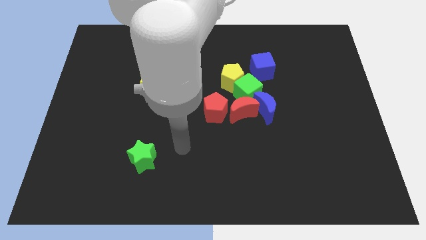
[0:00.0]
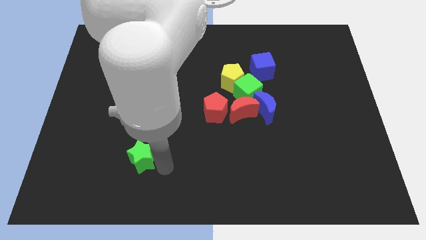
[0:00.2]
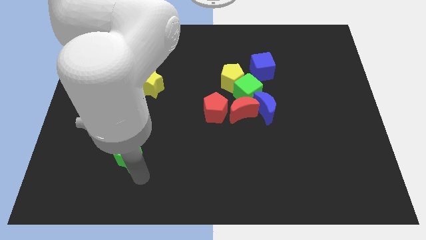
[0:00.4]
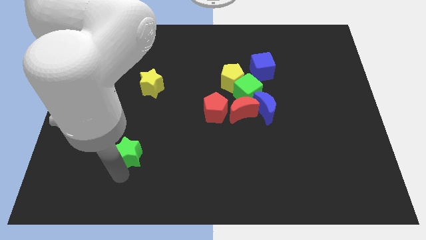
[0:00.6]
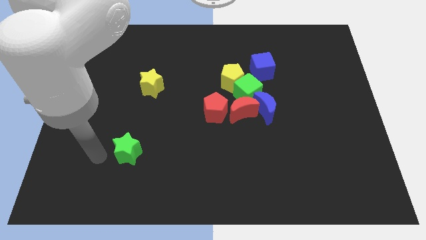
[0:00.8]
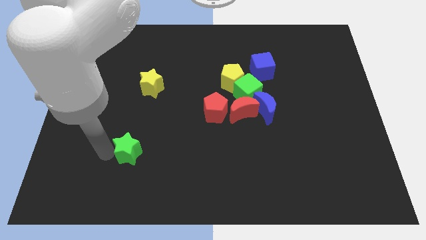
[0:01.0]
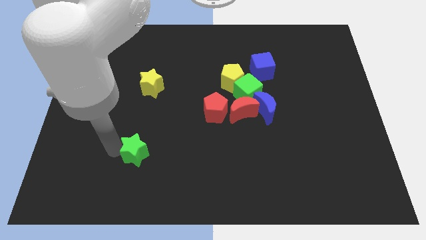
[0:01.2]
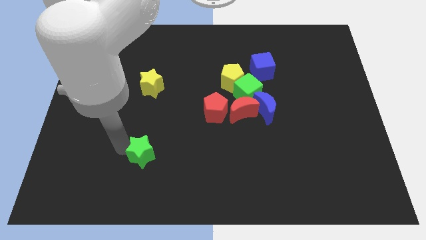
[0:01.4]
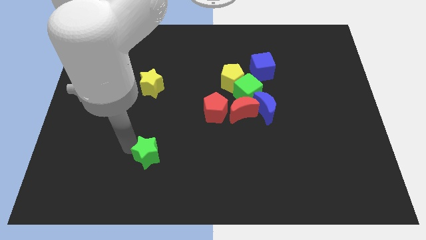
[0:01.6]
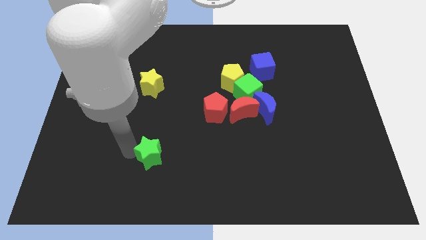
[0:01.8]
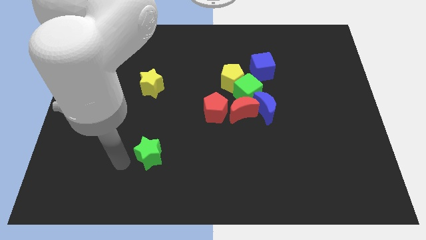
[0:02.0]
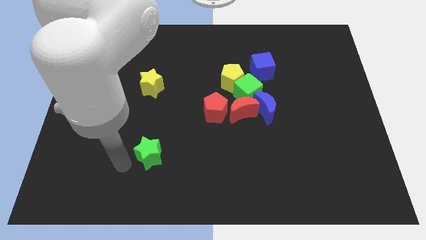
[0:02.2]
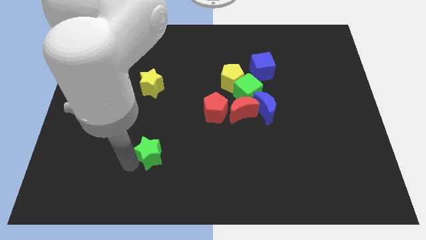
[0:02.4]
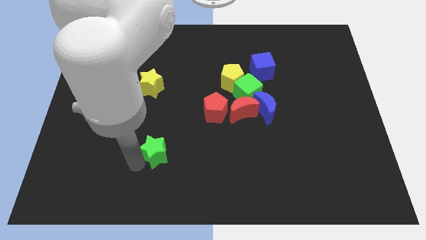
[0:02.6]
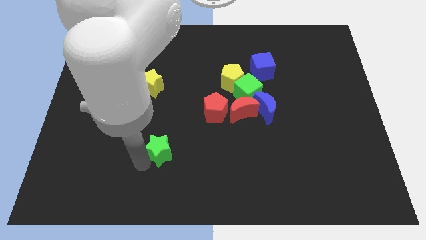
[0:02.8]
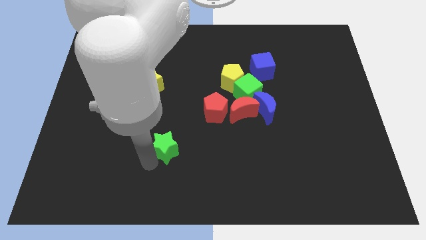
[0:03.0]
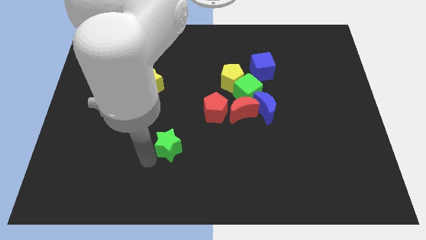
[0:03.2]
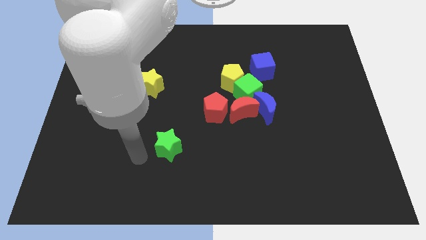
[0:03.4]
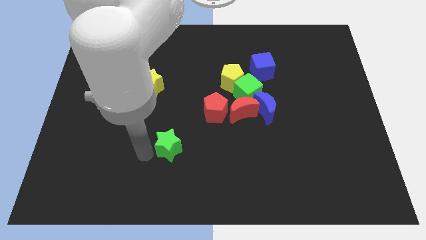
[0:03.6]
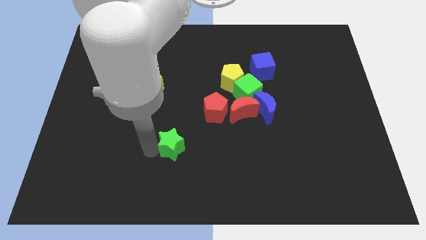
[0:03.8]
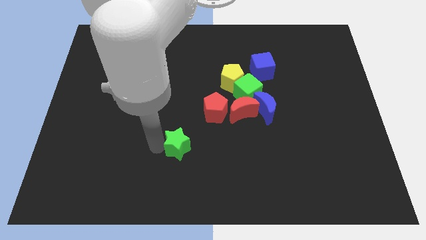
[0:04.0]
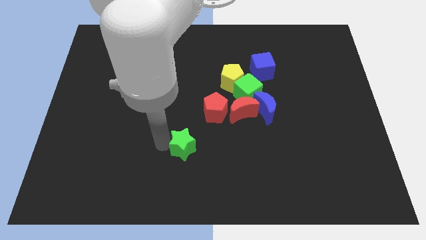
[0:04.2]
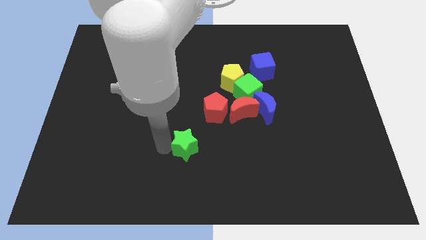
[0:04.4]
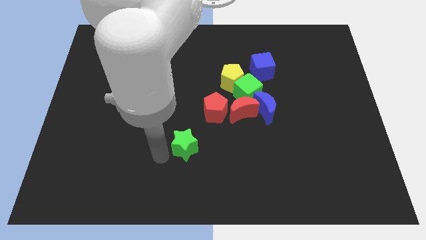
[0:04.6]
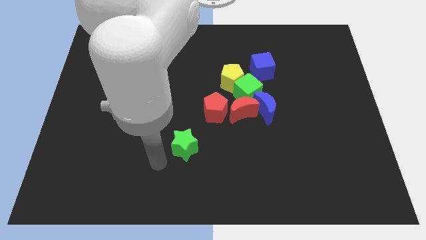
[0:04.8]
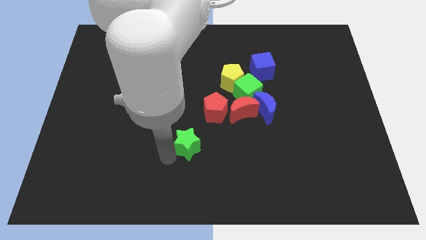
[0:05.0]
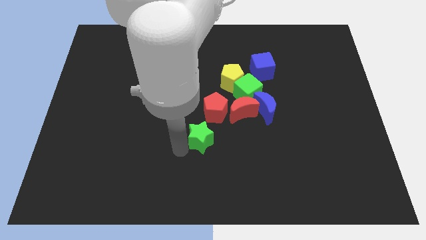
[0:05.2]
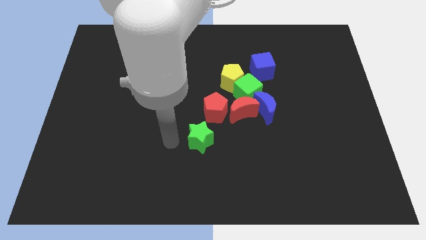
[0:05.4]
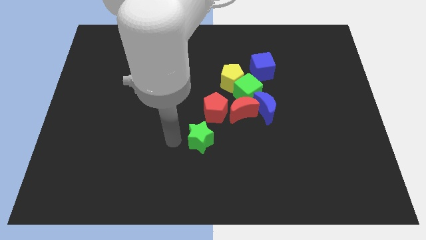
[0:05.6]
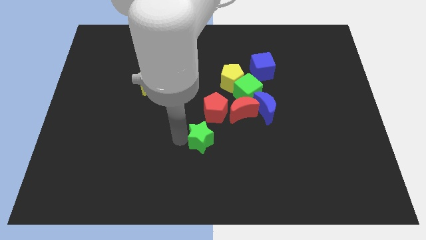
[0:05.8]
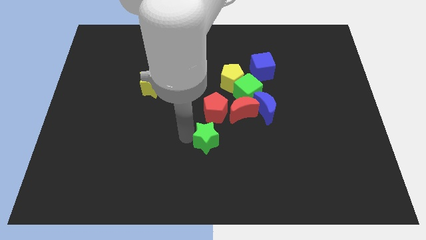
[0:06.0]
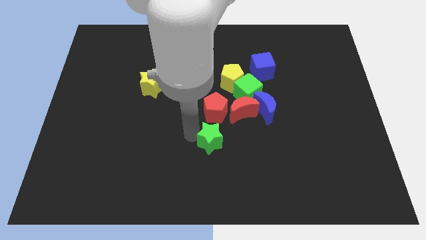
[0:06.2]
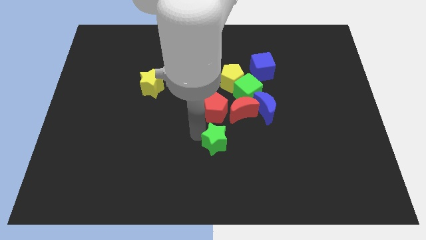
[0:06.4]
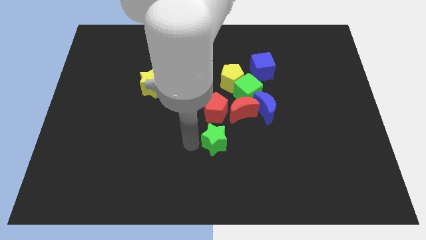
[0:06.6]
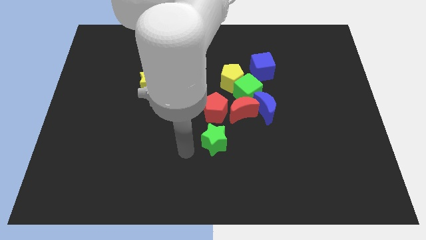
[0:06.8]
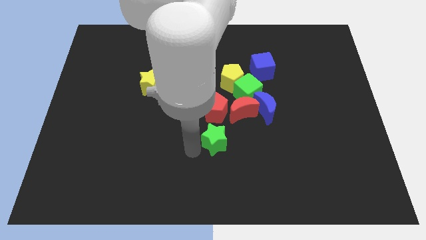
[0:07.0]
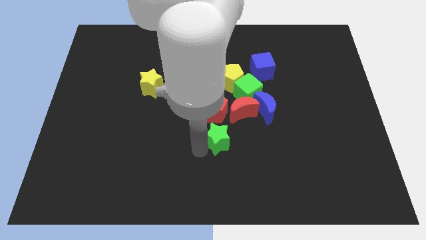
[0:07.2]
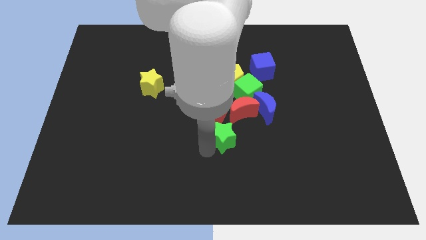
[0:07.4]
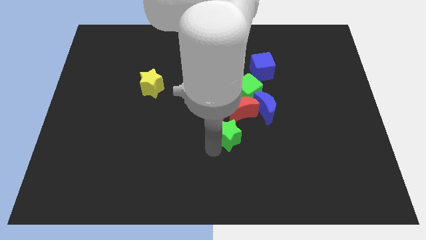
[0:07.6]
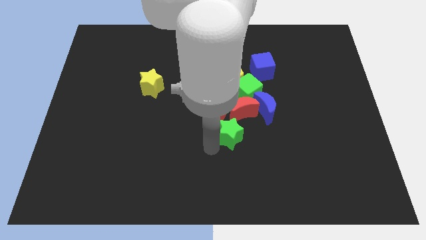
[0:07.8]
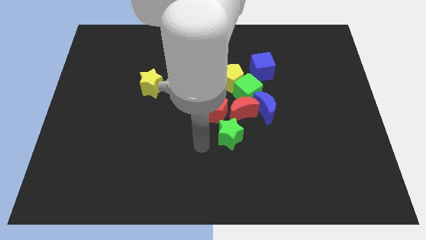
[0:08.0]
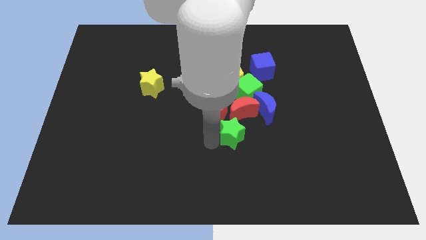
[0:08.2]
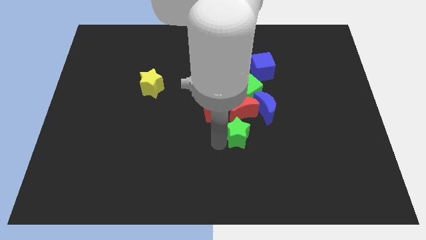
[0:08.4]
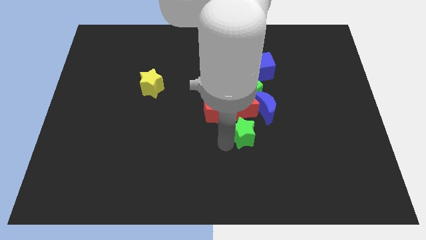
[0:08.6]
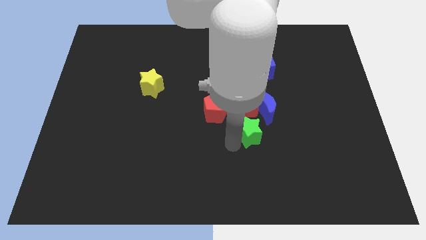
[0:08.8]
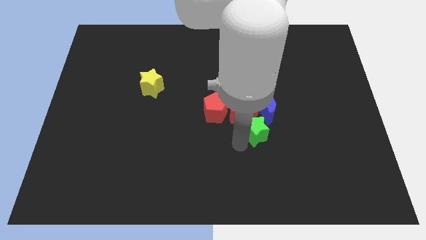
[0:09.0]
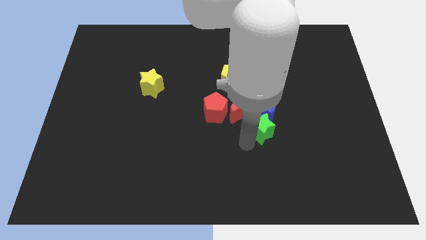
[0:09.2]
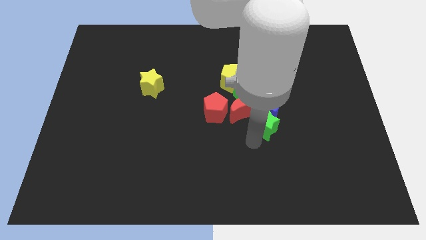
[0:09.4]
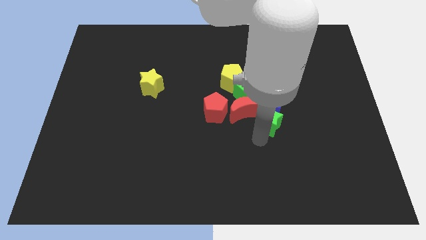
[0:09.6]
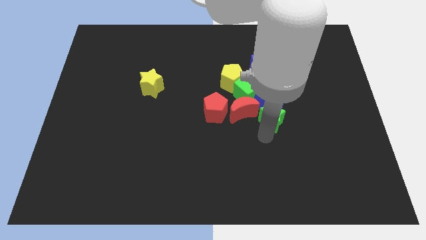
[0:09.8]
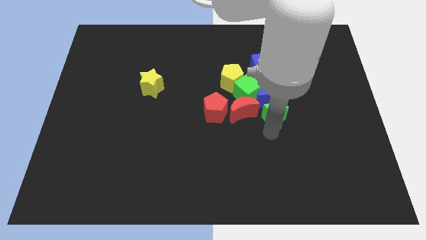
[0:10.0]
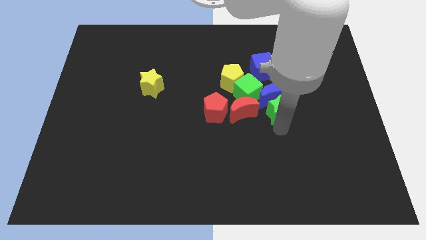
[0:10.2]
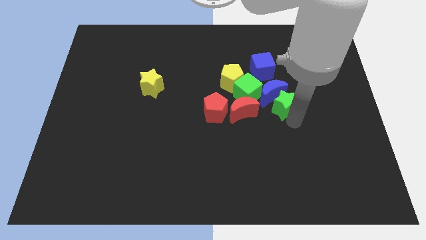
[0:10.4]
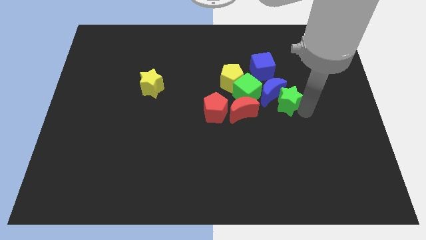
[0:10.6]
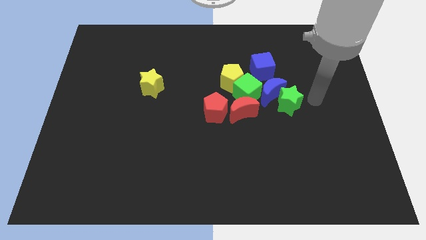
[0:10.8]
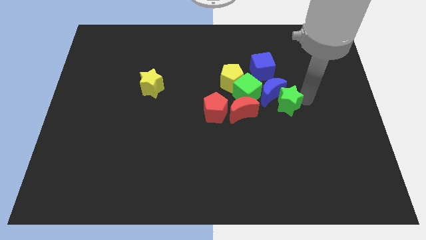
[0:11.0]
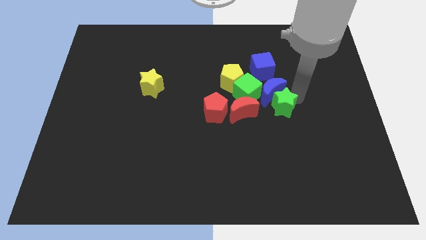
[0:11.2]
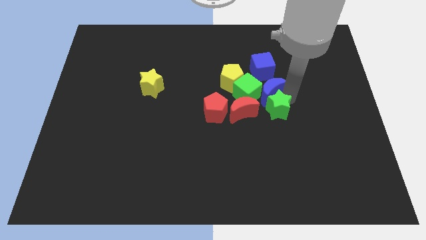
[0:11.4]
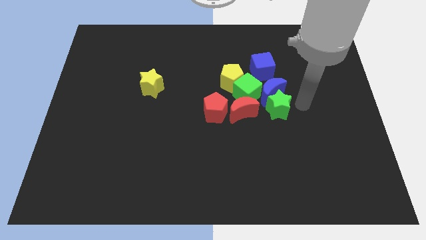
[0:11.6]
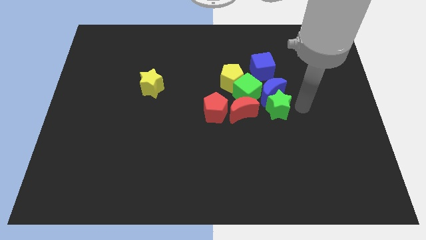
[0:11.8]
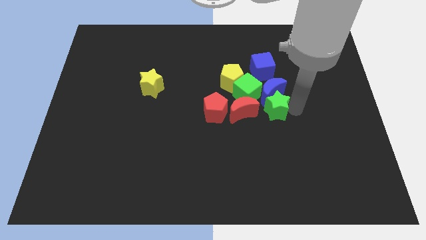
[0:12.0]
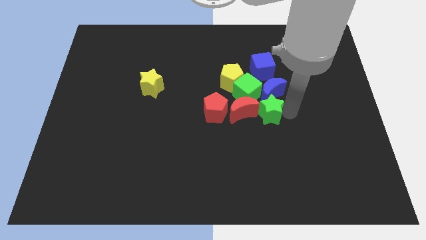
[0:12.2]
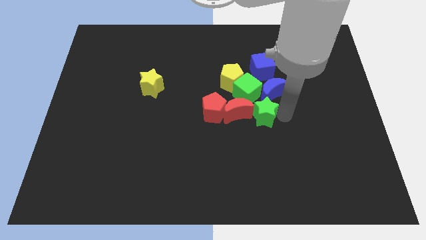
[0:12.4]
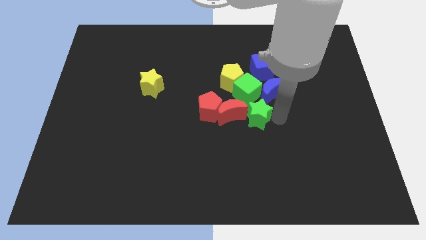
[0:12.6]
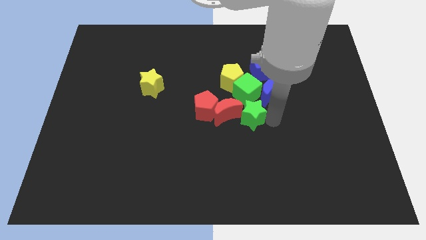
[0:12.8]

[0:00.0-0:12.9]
push the green star to the red moon

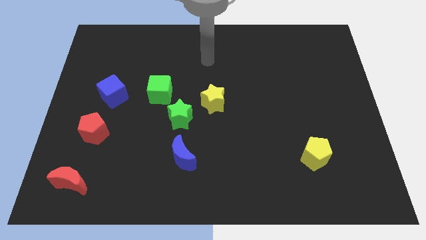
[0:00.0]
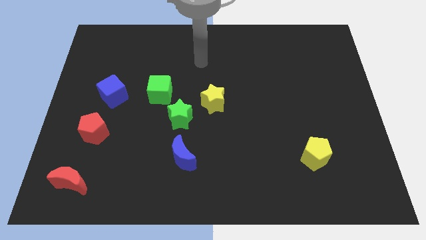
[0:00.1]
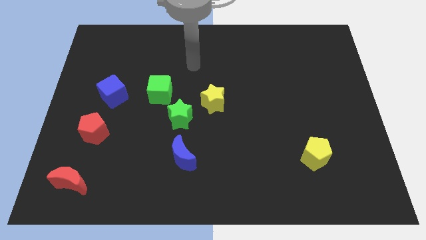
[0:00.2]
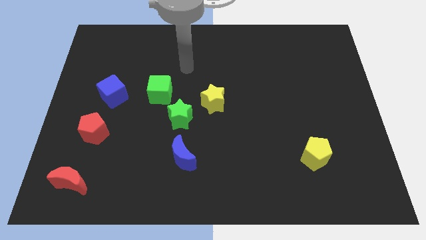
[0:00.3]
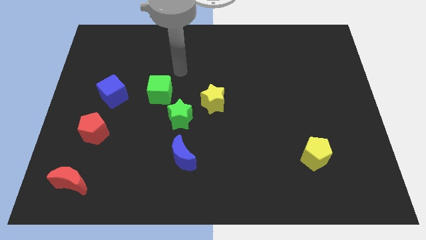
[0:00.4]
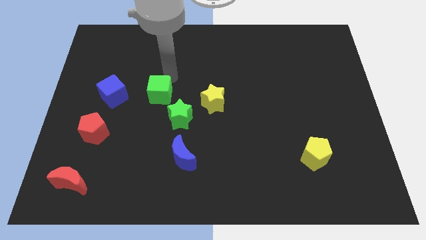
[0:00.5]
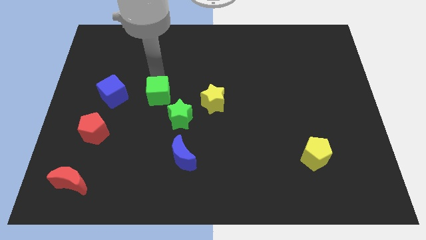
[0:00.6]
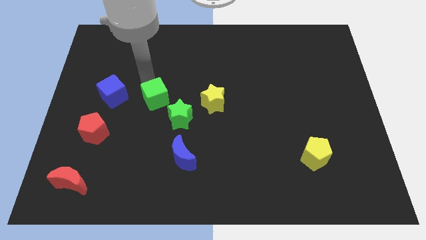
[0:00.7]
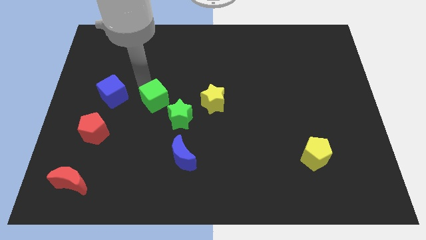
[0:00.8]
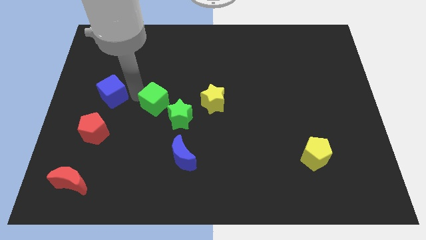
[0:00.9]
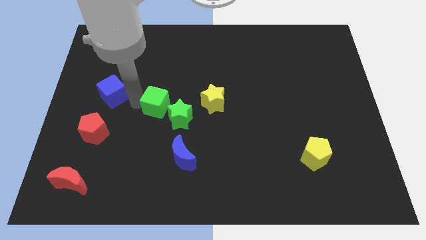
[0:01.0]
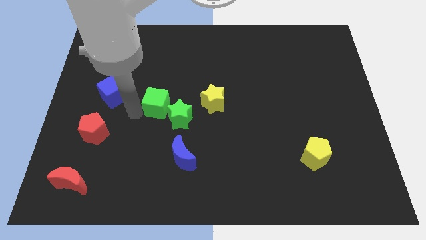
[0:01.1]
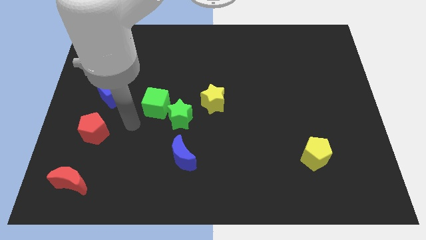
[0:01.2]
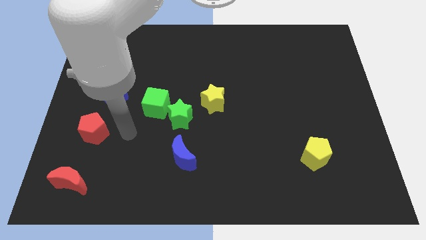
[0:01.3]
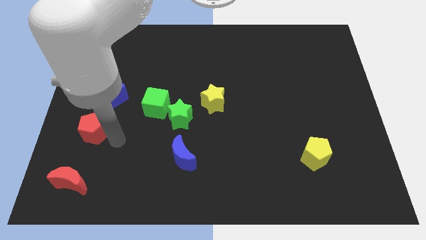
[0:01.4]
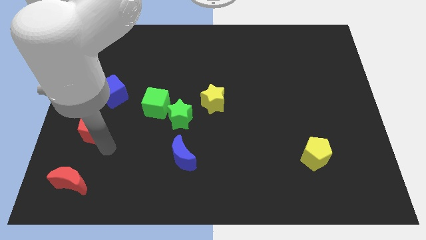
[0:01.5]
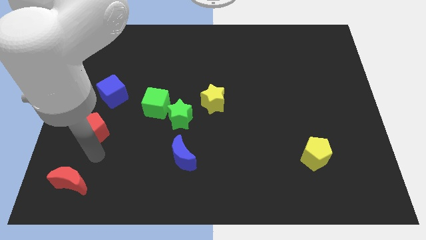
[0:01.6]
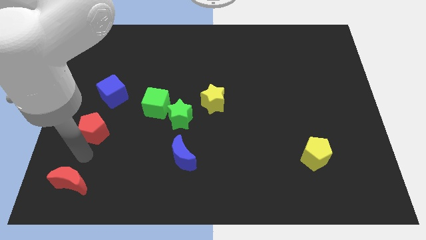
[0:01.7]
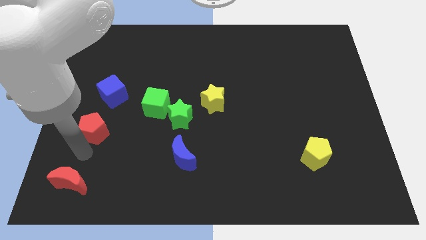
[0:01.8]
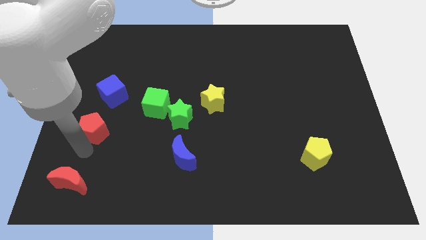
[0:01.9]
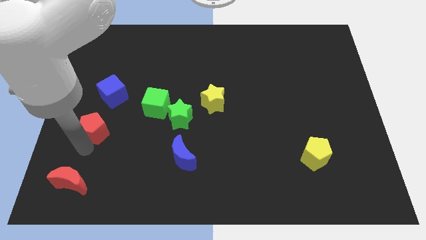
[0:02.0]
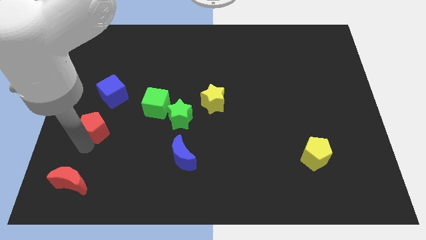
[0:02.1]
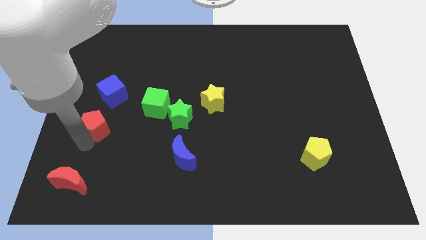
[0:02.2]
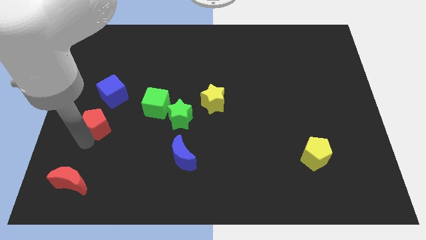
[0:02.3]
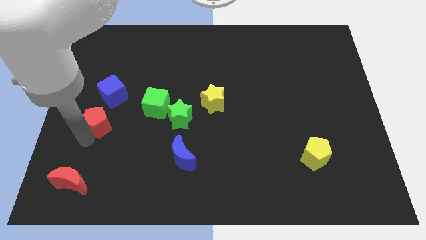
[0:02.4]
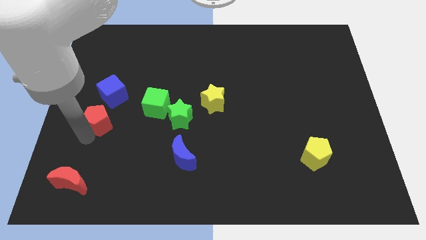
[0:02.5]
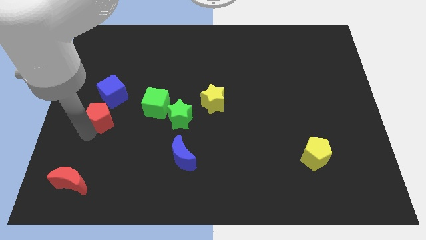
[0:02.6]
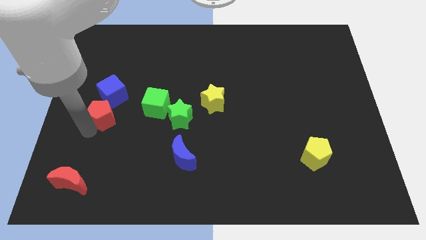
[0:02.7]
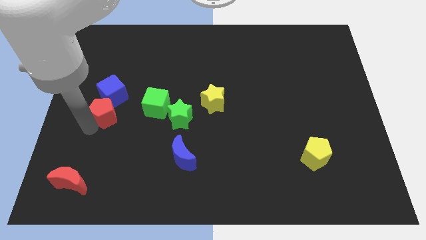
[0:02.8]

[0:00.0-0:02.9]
push the red pentagon close to the blue cube
